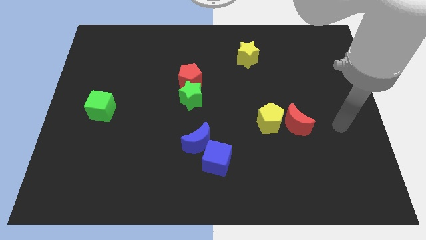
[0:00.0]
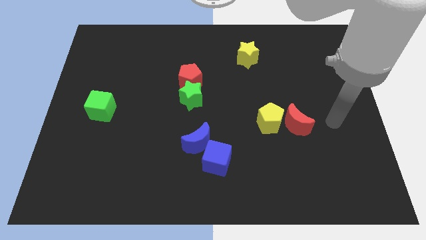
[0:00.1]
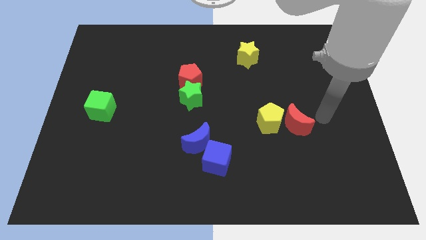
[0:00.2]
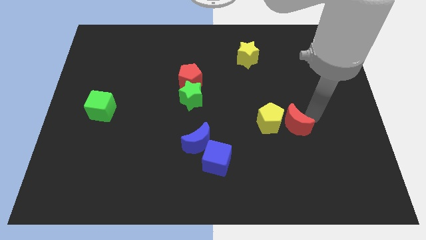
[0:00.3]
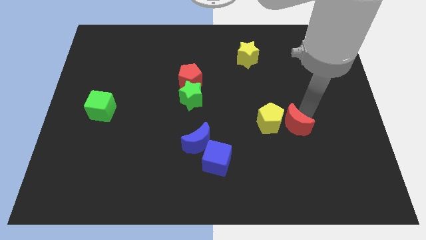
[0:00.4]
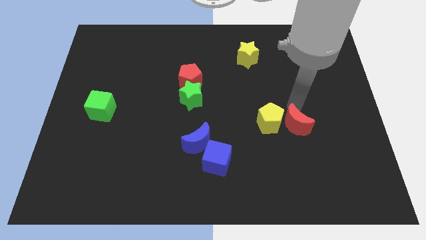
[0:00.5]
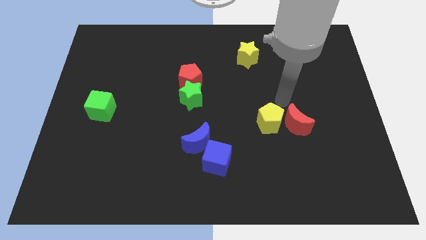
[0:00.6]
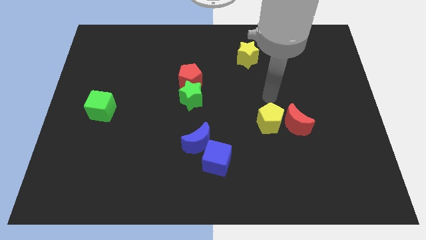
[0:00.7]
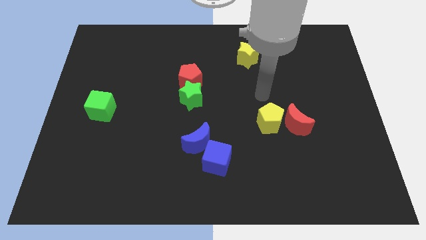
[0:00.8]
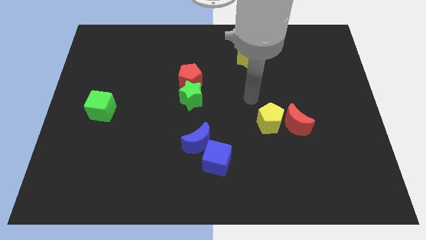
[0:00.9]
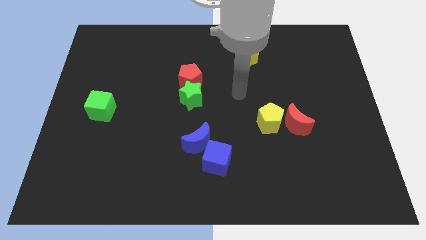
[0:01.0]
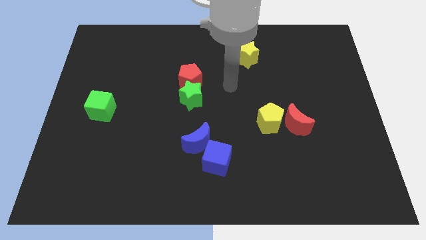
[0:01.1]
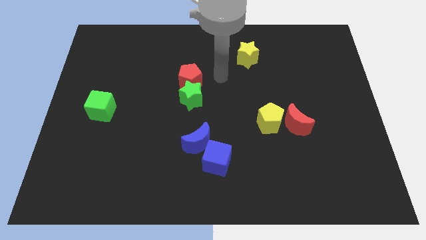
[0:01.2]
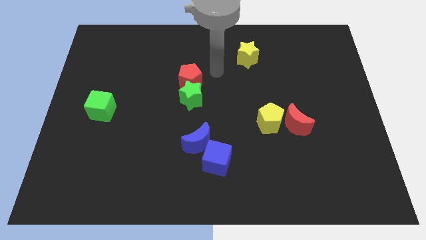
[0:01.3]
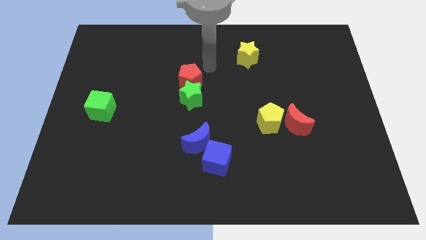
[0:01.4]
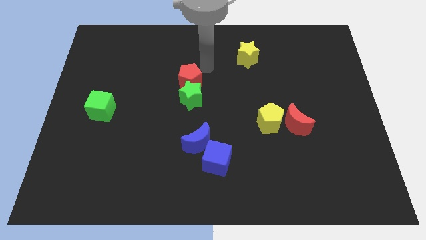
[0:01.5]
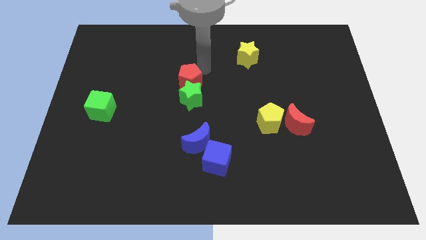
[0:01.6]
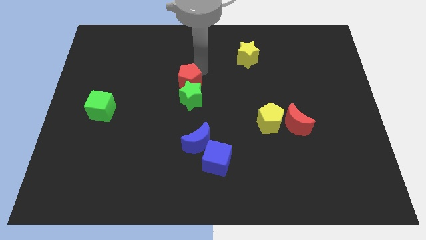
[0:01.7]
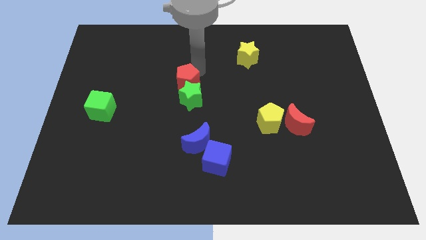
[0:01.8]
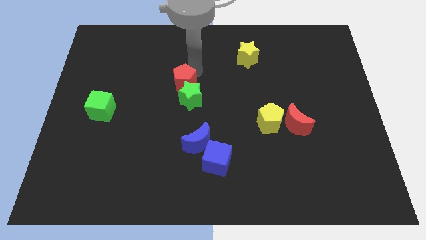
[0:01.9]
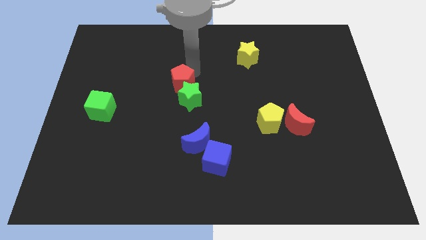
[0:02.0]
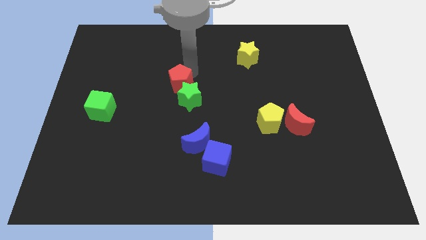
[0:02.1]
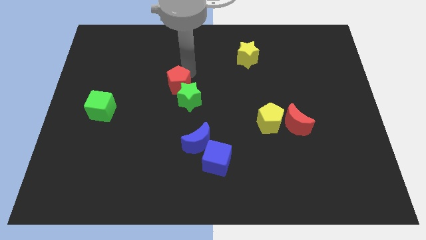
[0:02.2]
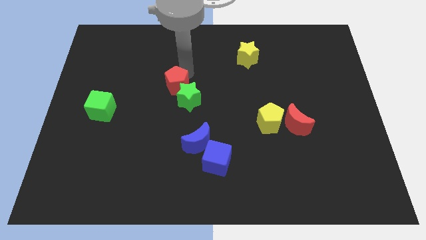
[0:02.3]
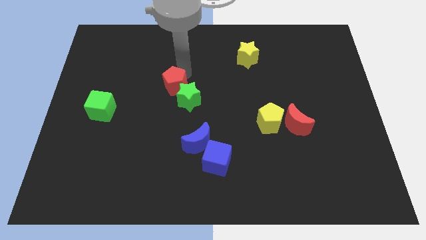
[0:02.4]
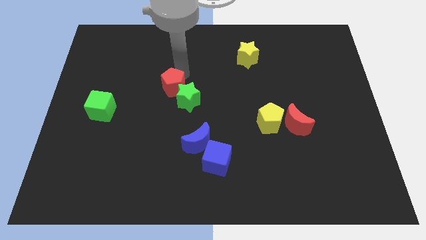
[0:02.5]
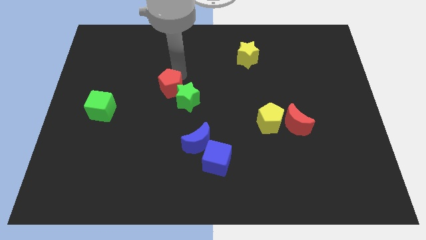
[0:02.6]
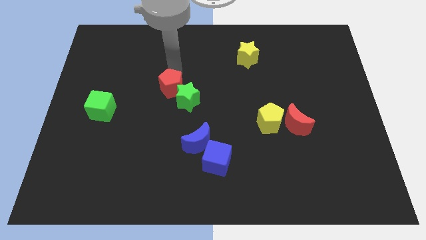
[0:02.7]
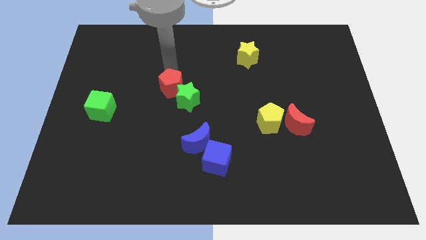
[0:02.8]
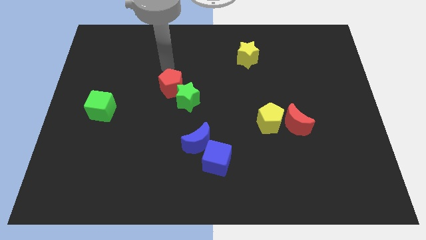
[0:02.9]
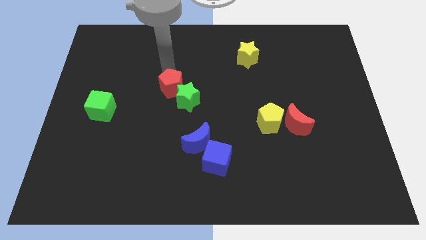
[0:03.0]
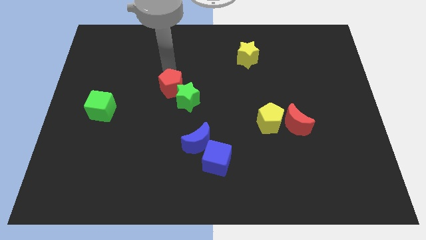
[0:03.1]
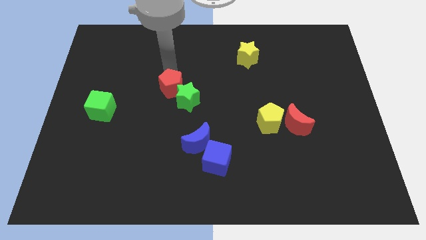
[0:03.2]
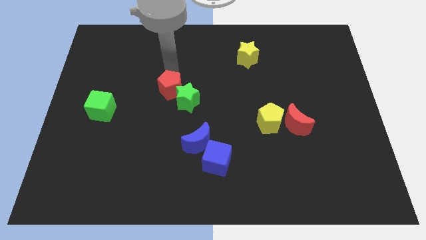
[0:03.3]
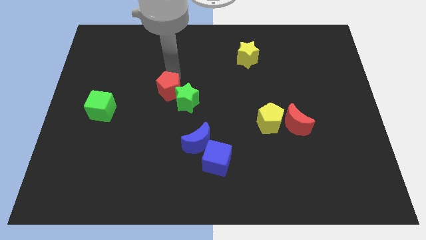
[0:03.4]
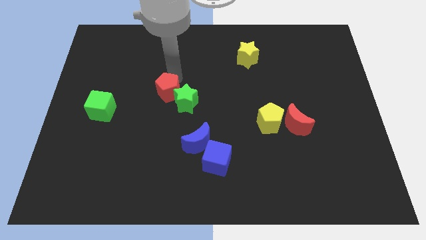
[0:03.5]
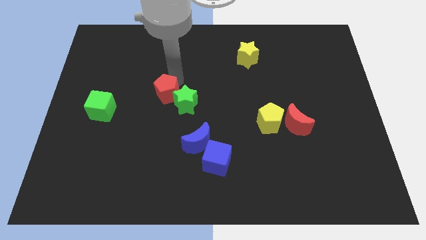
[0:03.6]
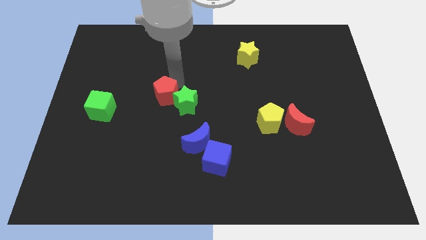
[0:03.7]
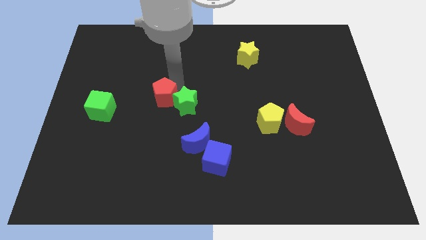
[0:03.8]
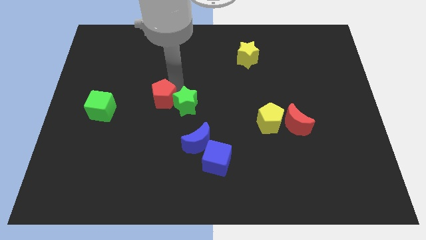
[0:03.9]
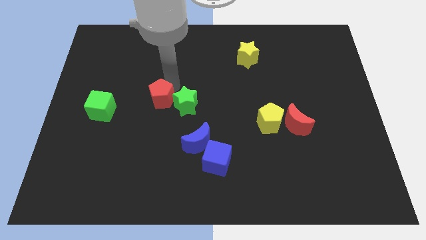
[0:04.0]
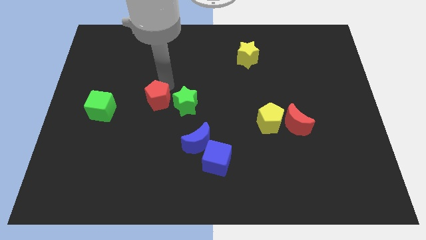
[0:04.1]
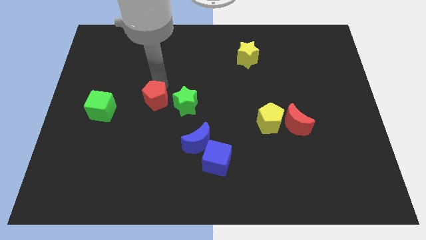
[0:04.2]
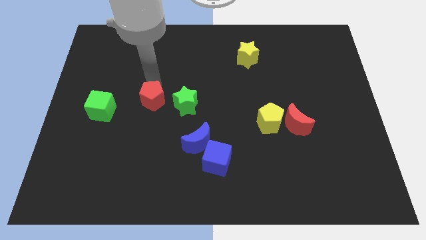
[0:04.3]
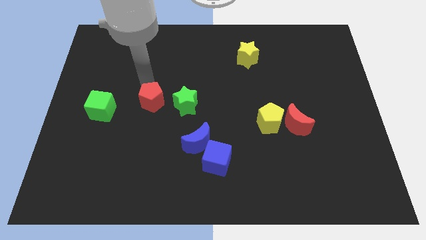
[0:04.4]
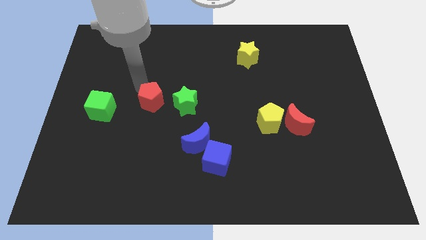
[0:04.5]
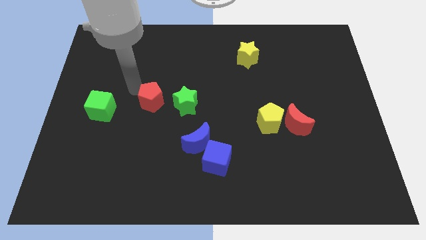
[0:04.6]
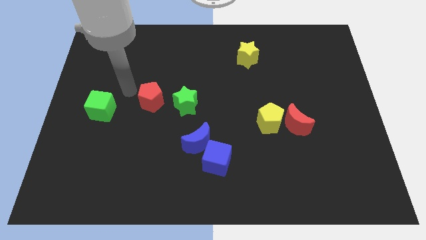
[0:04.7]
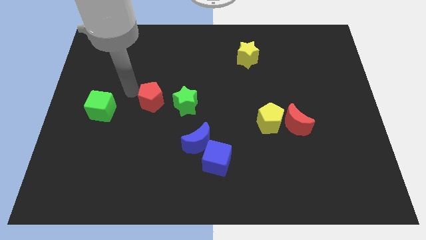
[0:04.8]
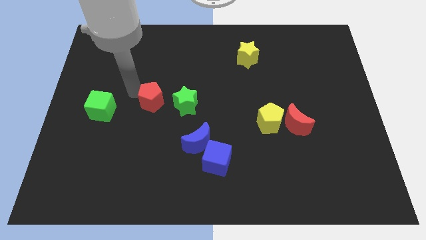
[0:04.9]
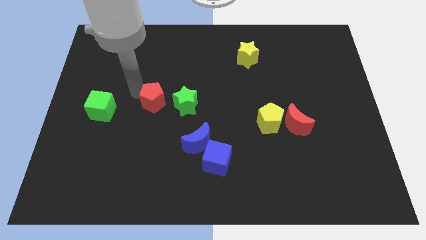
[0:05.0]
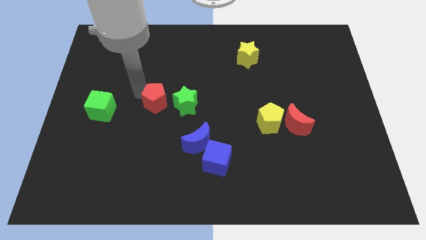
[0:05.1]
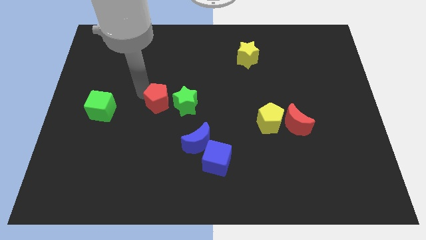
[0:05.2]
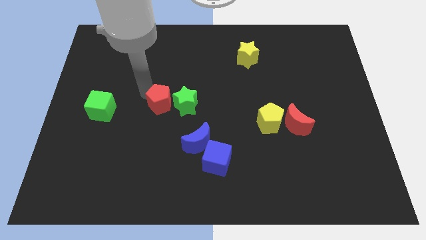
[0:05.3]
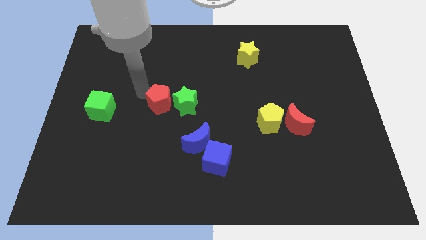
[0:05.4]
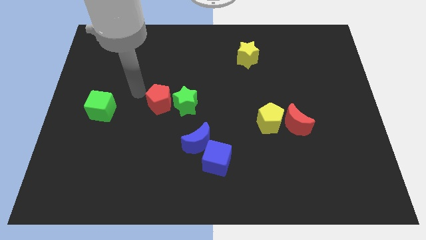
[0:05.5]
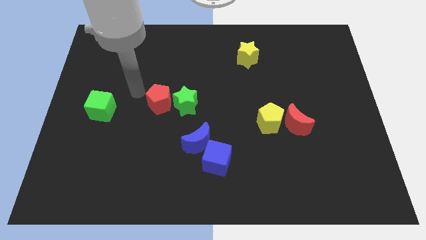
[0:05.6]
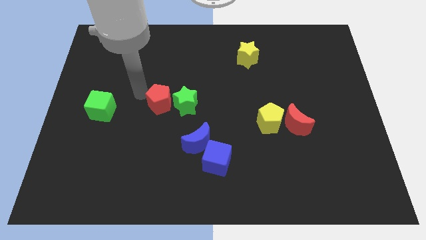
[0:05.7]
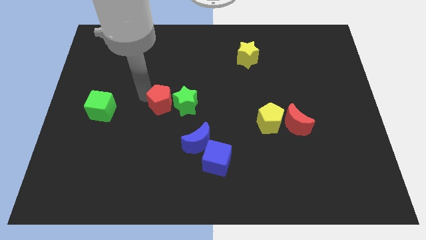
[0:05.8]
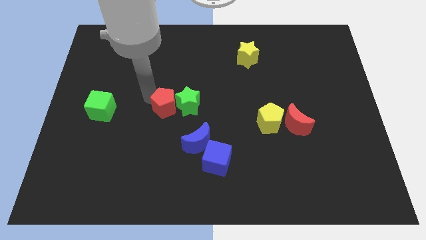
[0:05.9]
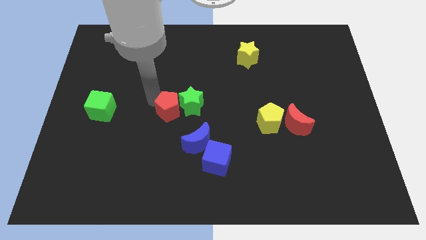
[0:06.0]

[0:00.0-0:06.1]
slide the red pentagon to the top left side of the blue moon

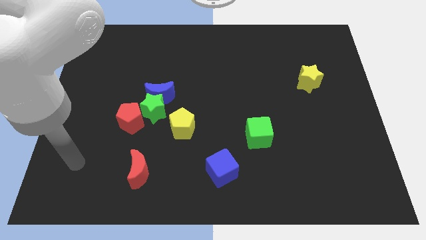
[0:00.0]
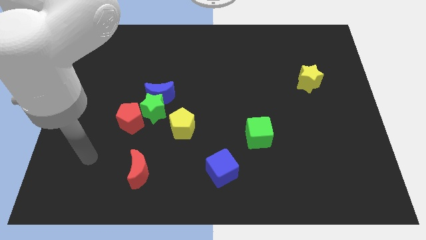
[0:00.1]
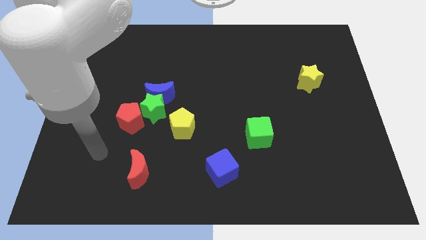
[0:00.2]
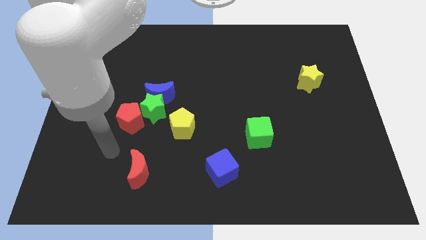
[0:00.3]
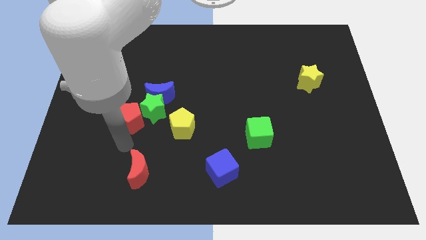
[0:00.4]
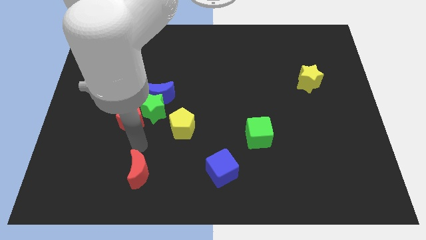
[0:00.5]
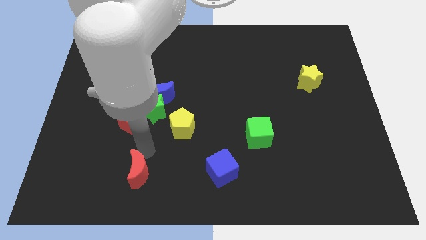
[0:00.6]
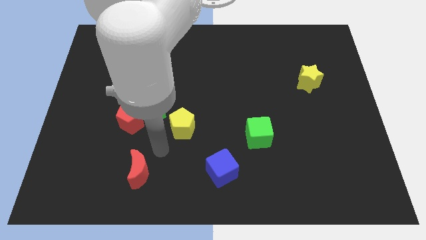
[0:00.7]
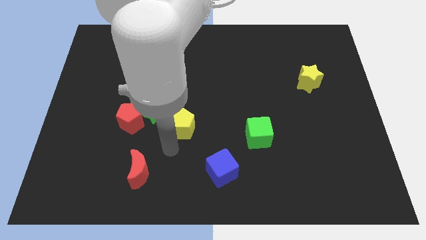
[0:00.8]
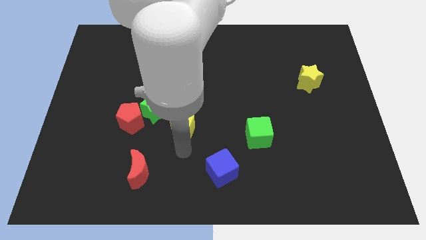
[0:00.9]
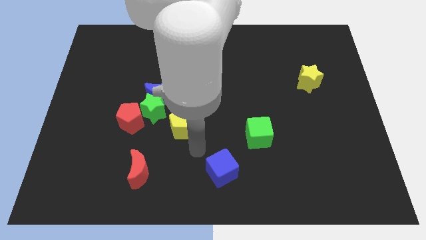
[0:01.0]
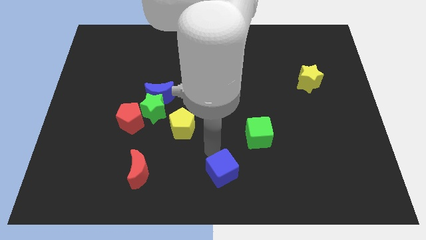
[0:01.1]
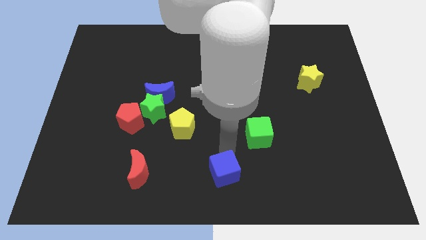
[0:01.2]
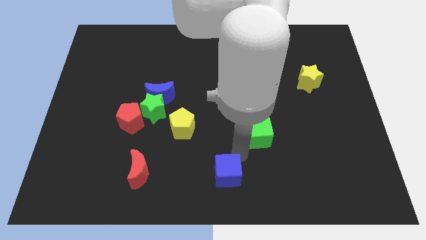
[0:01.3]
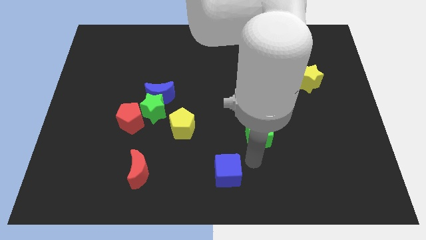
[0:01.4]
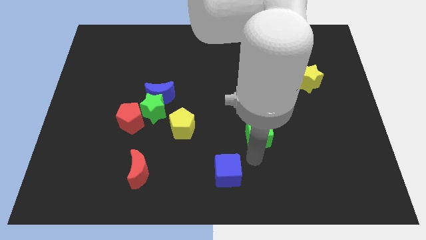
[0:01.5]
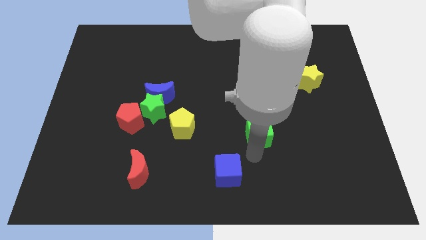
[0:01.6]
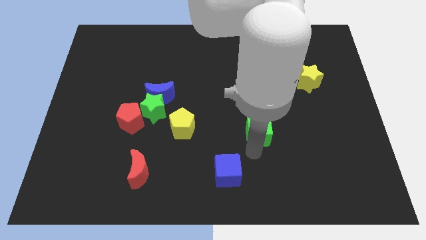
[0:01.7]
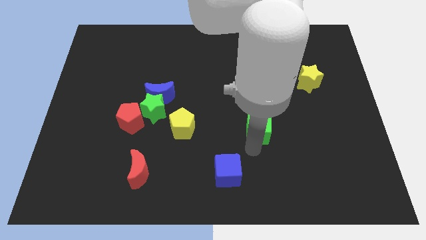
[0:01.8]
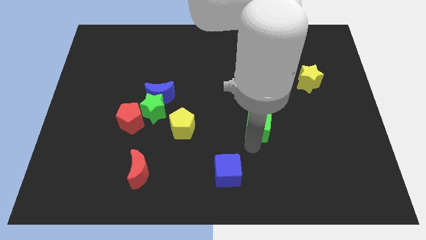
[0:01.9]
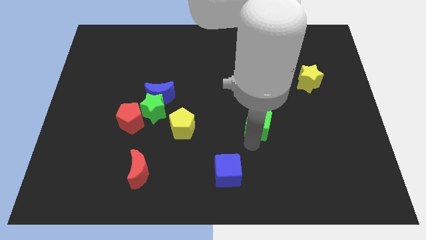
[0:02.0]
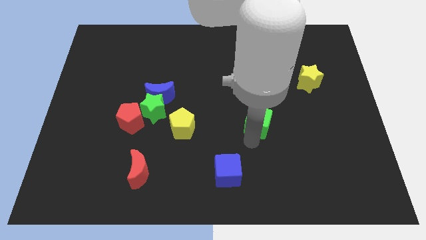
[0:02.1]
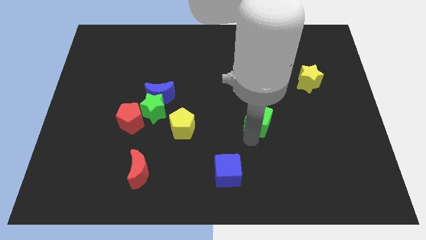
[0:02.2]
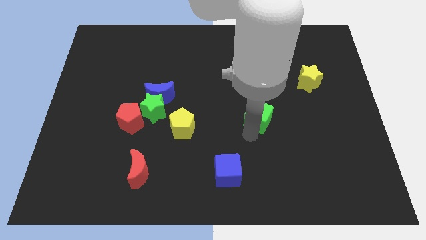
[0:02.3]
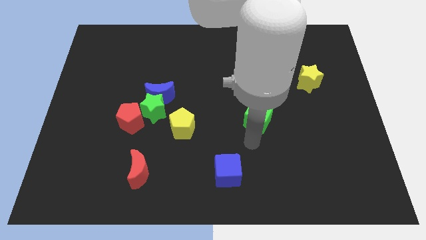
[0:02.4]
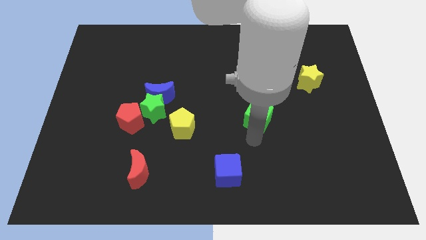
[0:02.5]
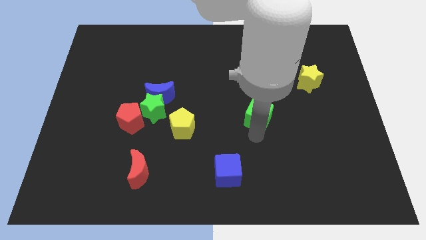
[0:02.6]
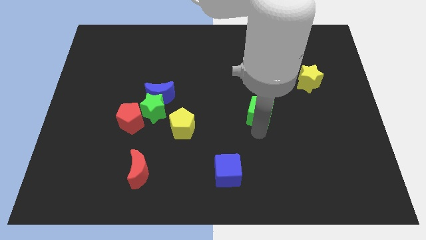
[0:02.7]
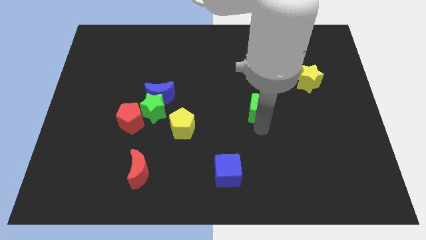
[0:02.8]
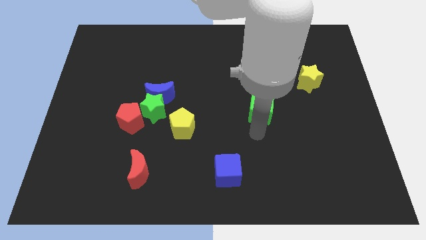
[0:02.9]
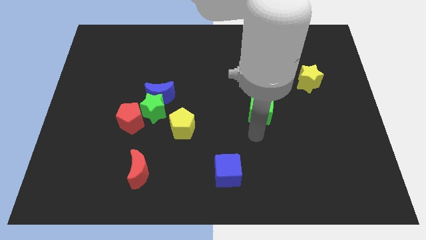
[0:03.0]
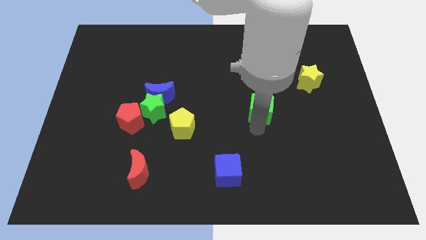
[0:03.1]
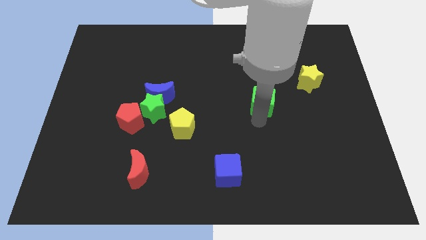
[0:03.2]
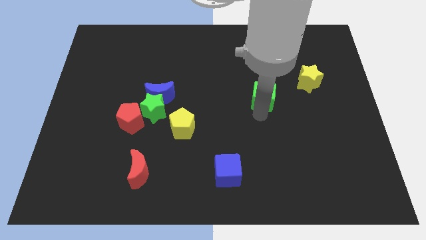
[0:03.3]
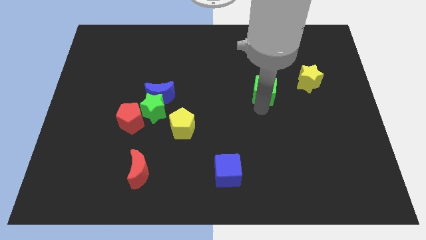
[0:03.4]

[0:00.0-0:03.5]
slide the green cube to the left side of the yellow star
